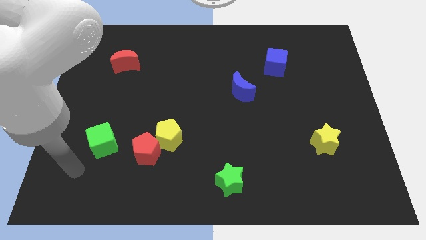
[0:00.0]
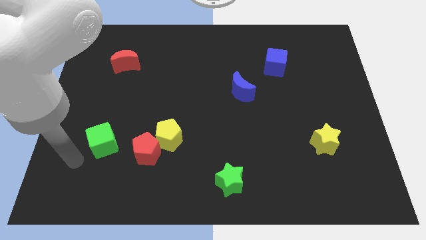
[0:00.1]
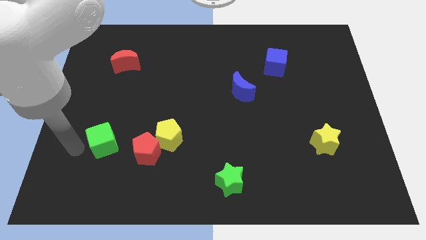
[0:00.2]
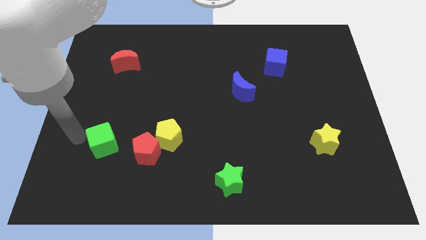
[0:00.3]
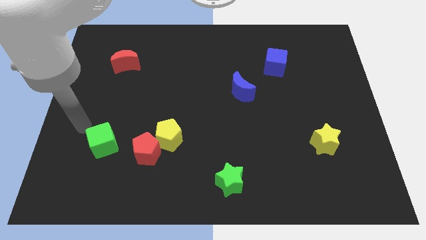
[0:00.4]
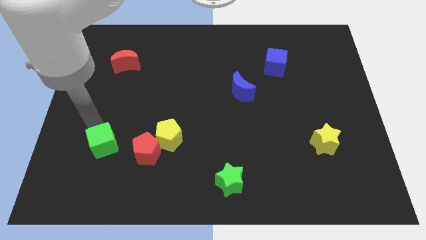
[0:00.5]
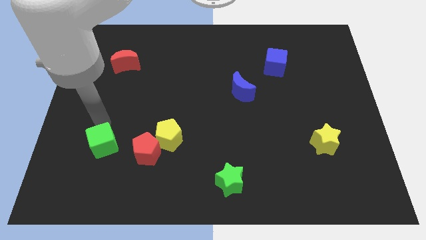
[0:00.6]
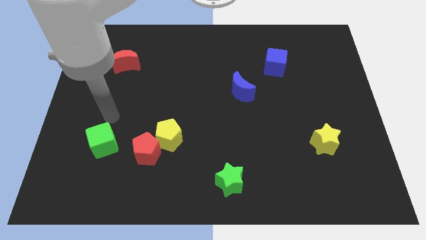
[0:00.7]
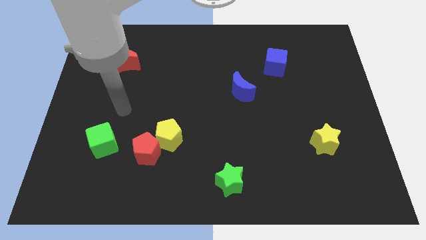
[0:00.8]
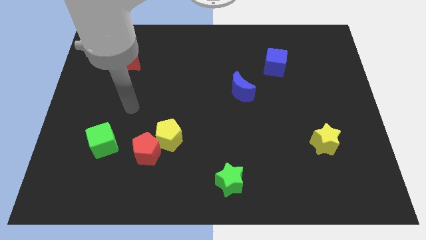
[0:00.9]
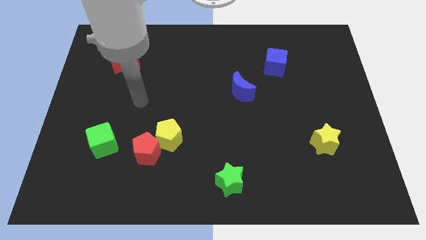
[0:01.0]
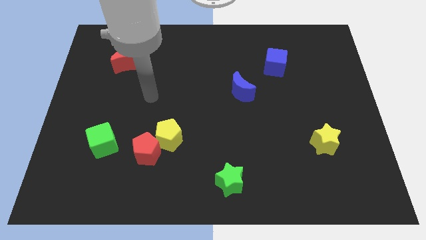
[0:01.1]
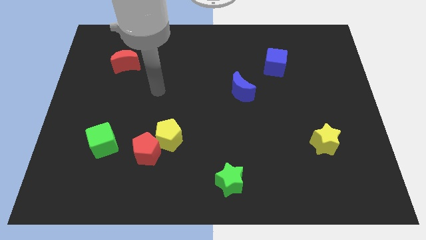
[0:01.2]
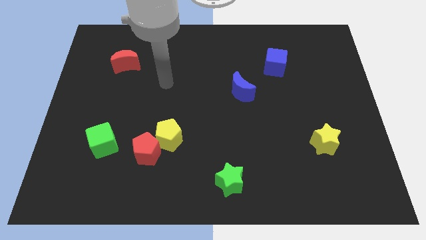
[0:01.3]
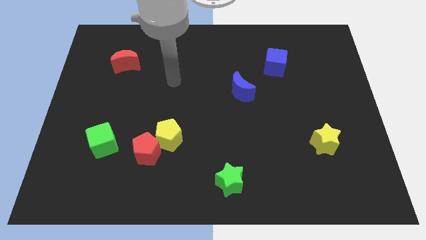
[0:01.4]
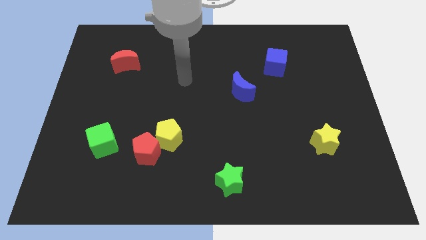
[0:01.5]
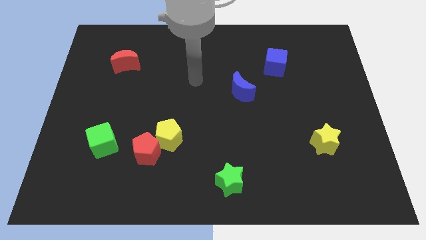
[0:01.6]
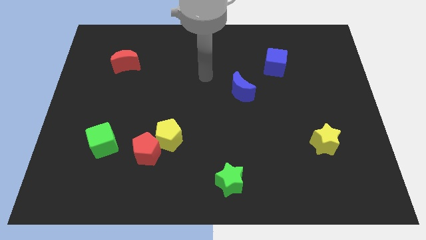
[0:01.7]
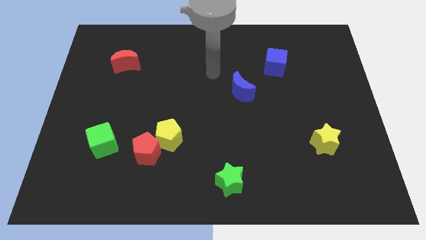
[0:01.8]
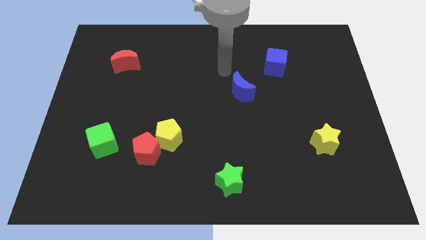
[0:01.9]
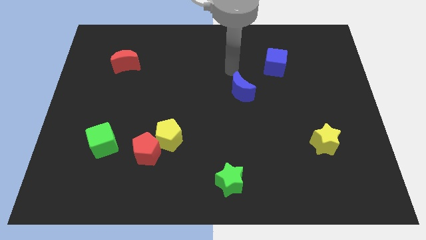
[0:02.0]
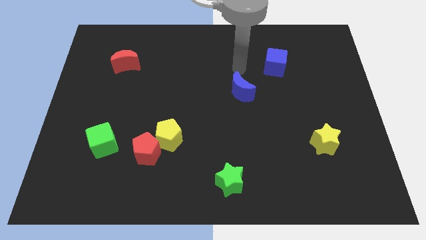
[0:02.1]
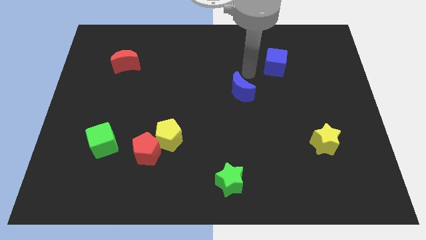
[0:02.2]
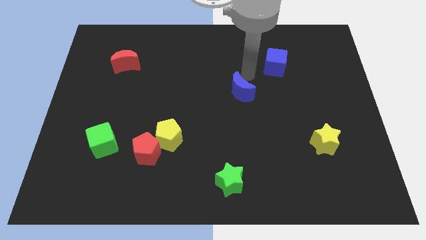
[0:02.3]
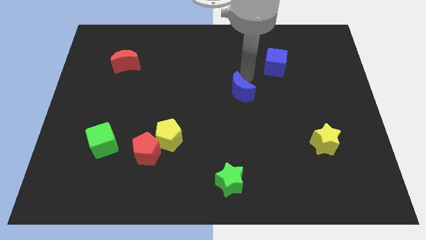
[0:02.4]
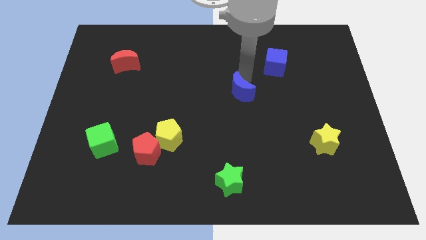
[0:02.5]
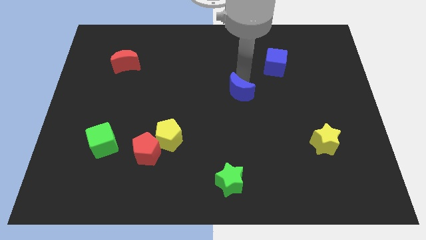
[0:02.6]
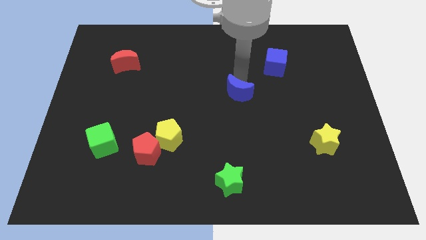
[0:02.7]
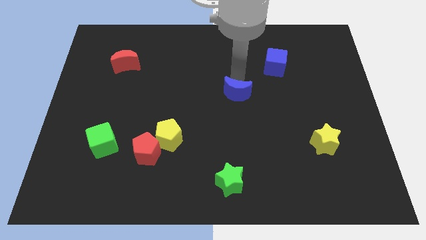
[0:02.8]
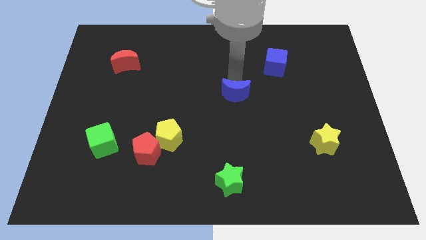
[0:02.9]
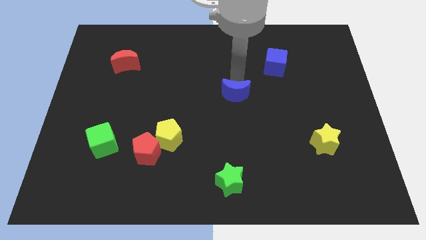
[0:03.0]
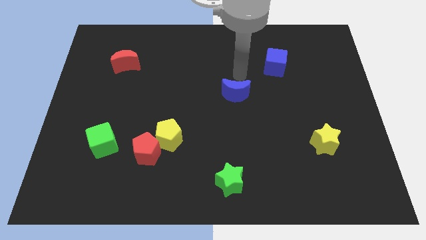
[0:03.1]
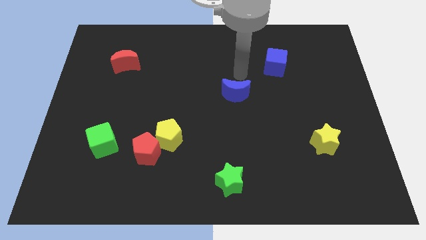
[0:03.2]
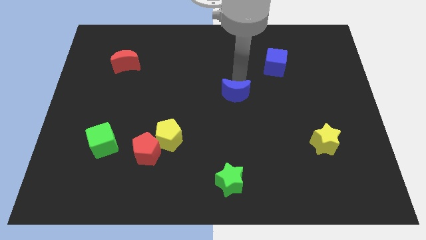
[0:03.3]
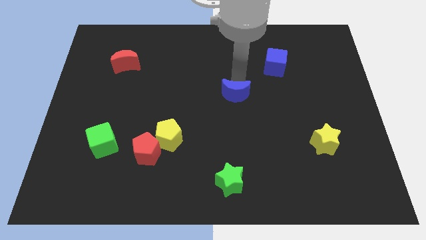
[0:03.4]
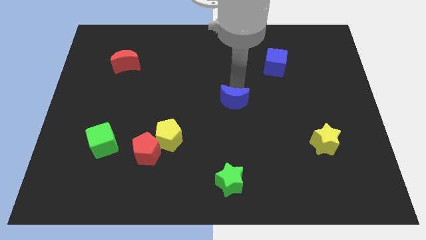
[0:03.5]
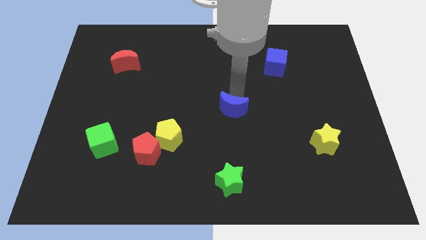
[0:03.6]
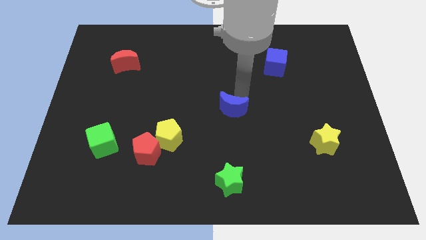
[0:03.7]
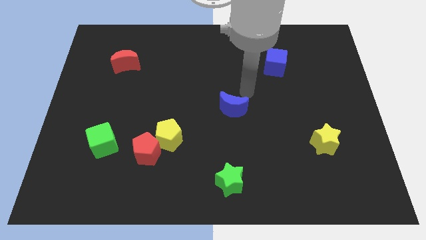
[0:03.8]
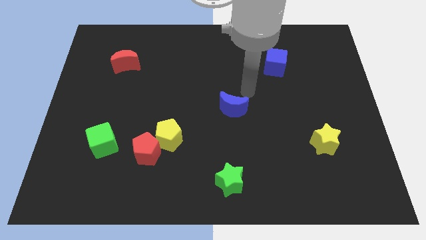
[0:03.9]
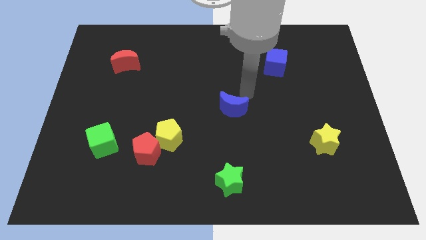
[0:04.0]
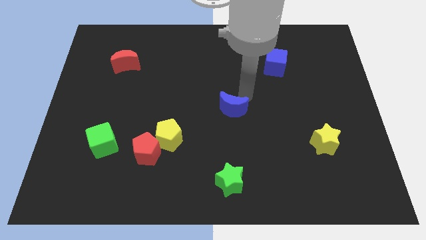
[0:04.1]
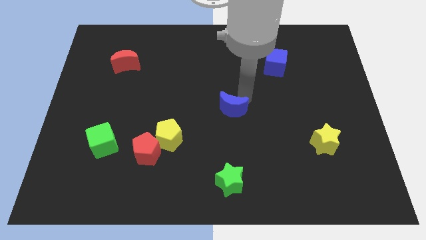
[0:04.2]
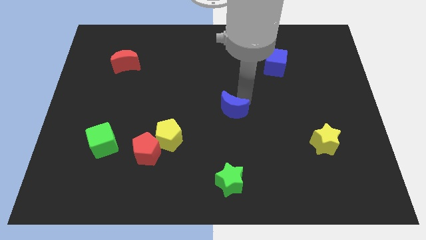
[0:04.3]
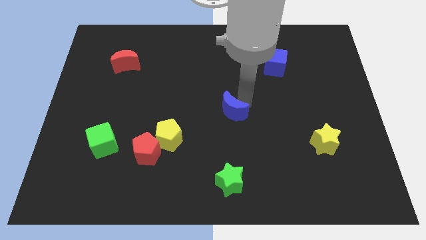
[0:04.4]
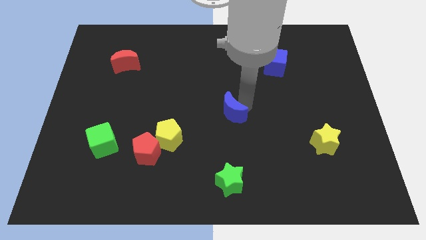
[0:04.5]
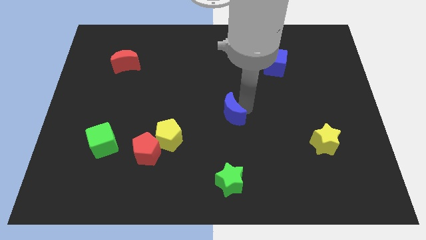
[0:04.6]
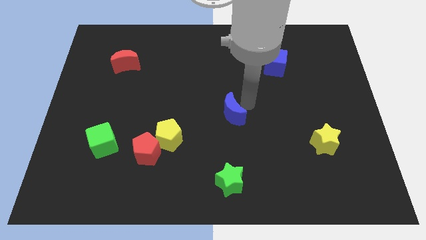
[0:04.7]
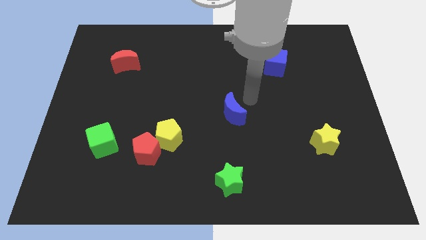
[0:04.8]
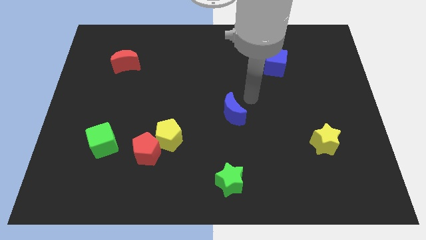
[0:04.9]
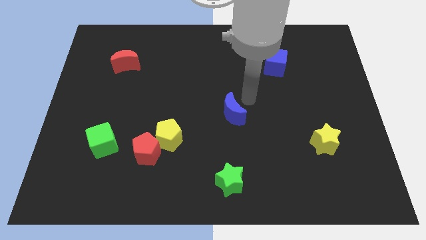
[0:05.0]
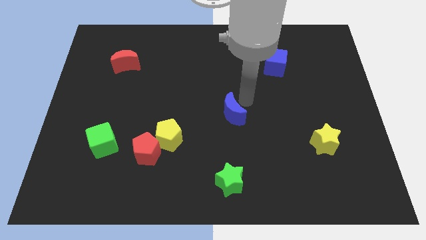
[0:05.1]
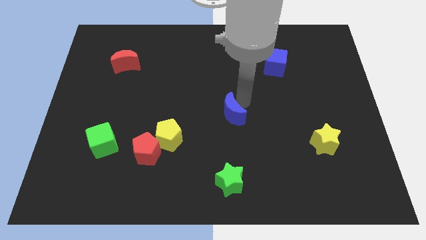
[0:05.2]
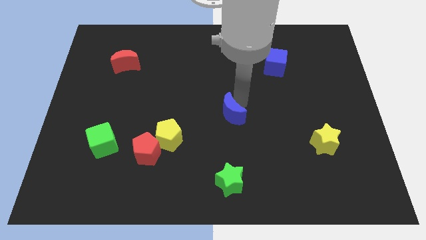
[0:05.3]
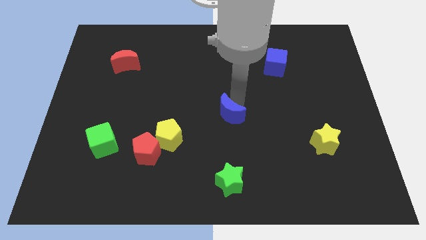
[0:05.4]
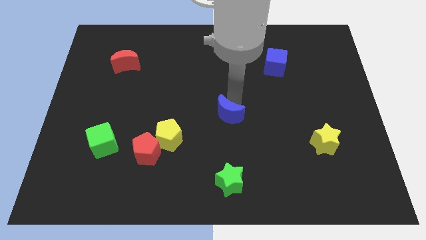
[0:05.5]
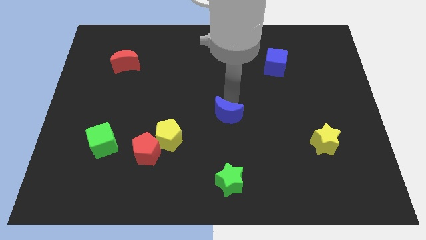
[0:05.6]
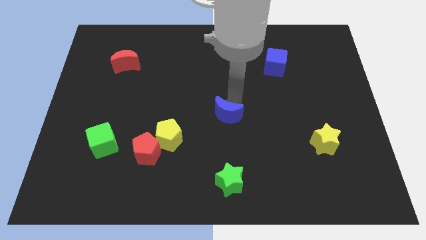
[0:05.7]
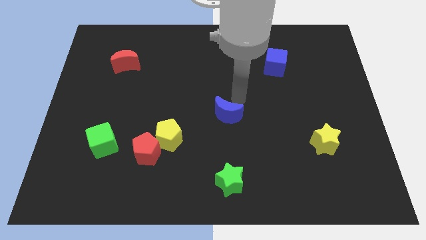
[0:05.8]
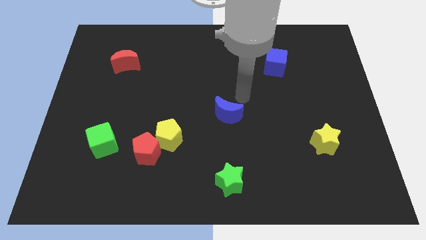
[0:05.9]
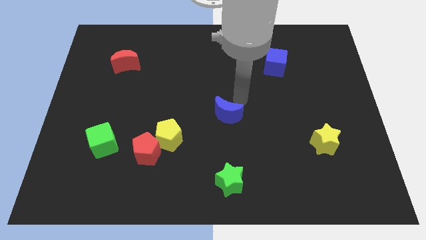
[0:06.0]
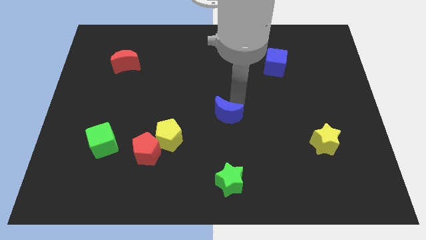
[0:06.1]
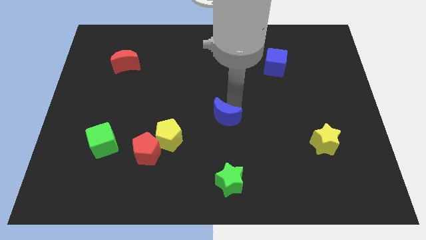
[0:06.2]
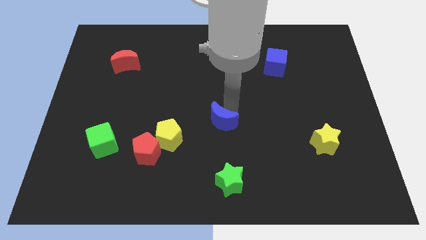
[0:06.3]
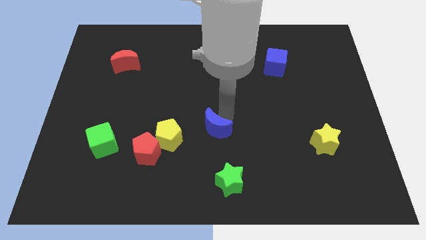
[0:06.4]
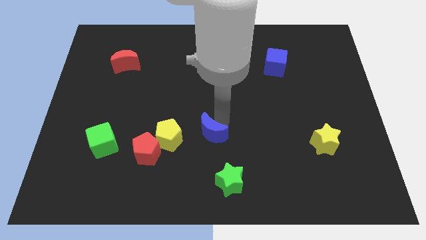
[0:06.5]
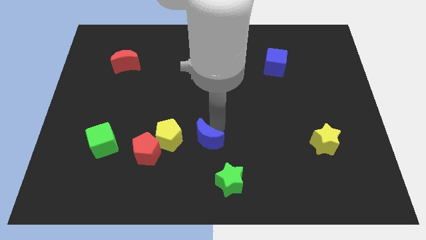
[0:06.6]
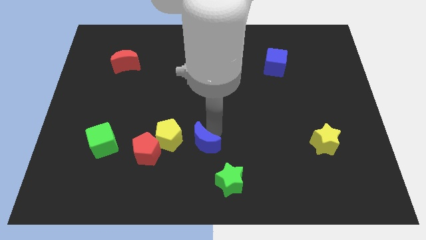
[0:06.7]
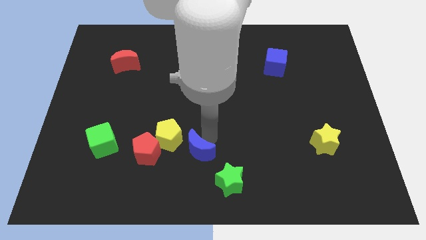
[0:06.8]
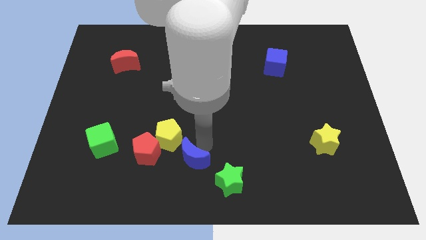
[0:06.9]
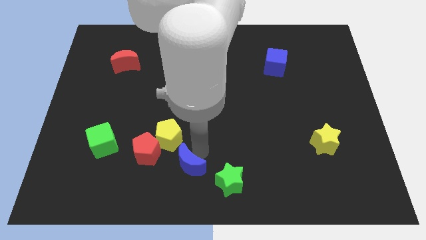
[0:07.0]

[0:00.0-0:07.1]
move the blue moon diagonally down and to the right of the red pentagon
